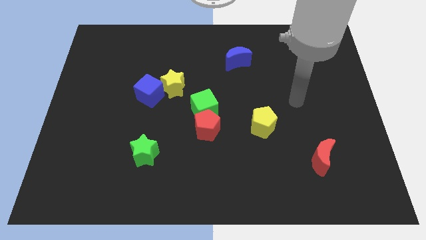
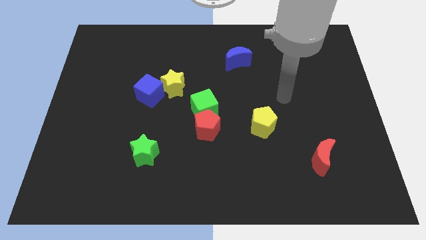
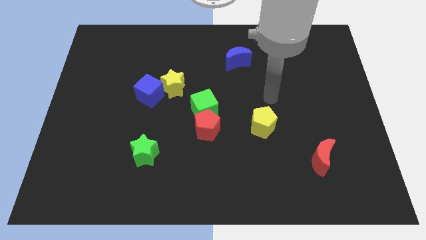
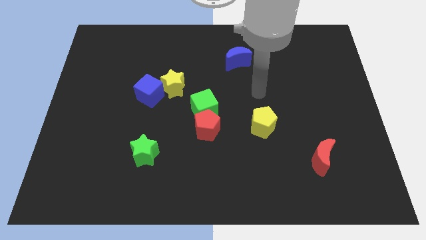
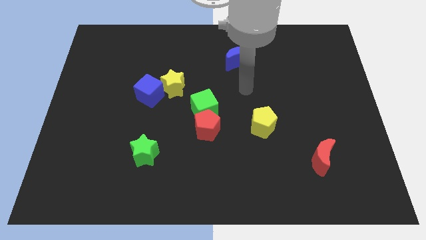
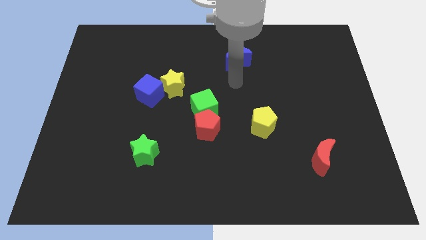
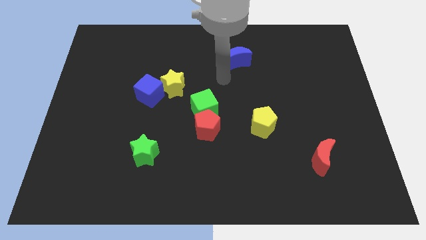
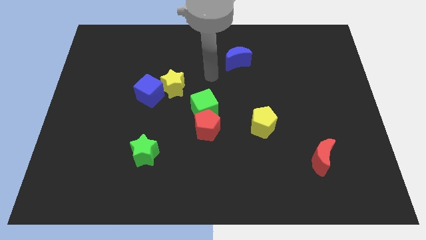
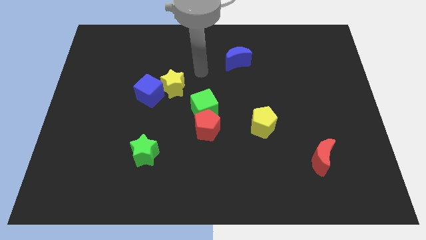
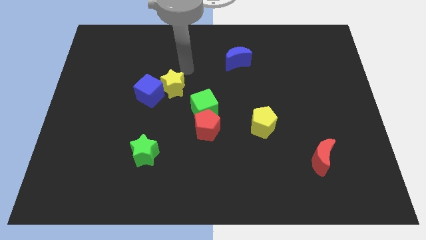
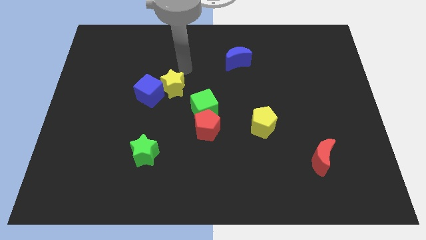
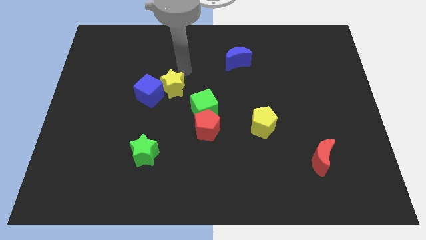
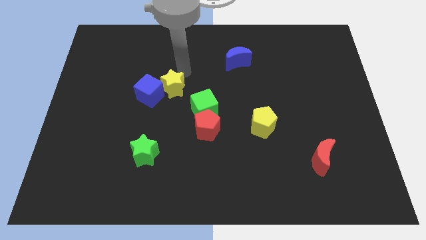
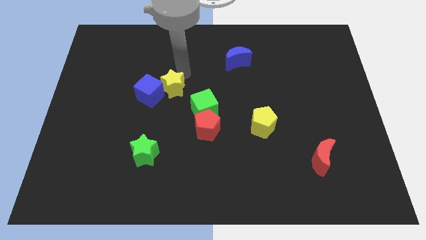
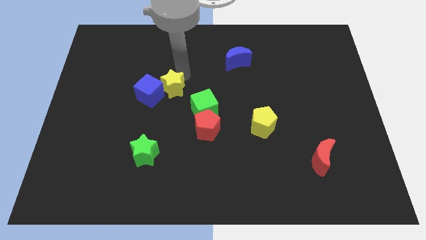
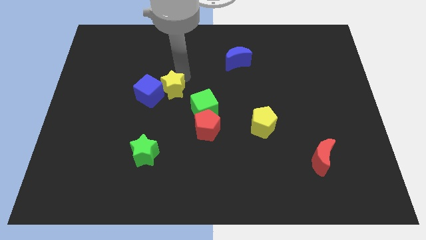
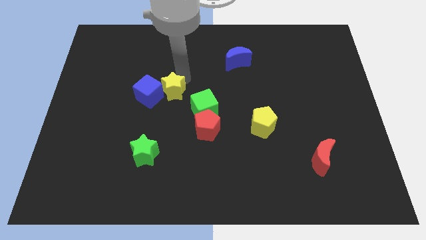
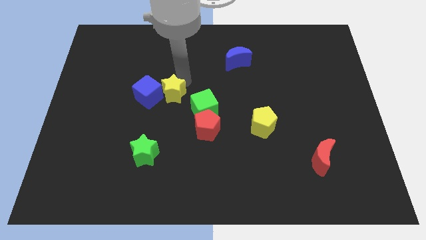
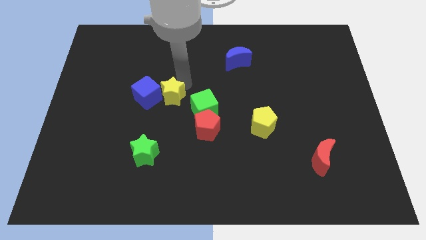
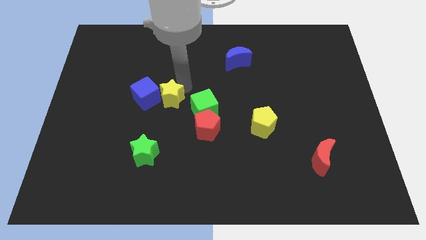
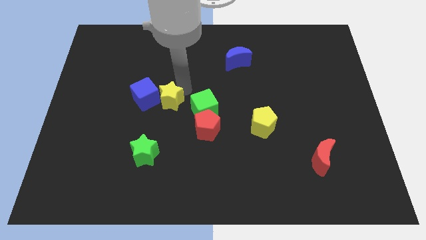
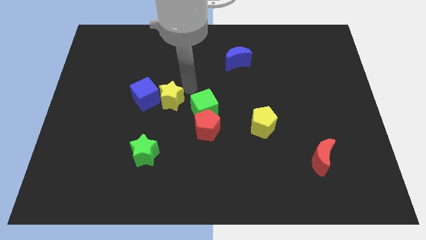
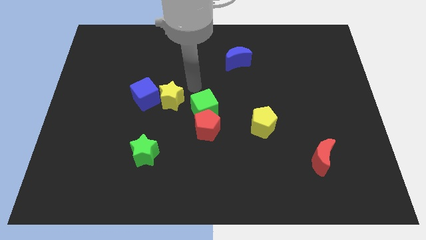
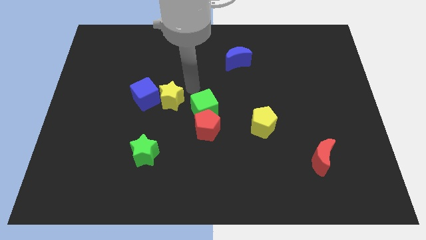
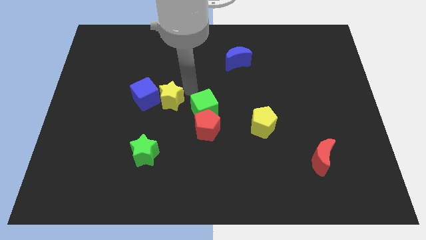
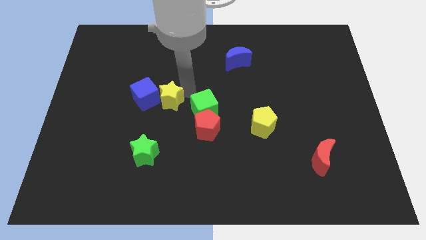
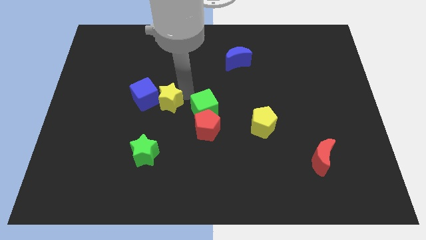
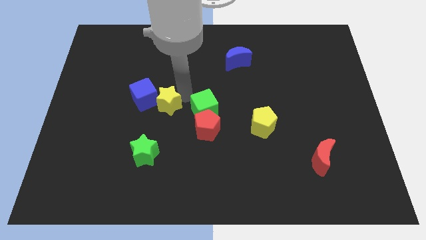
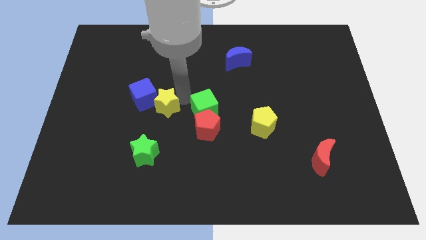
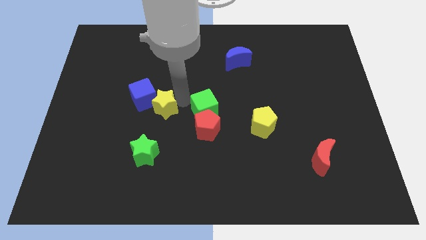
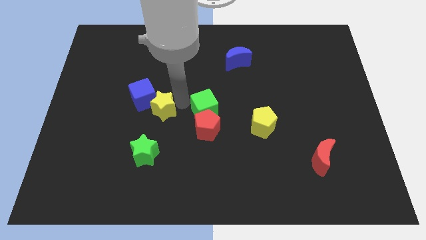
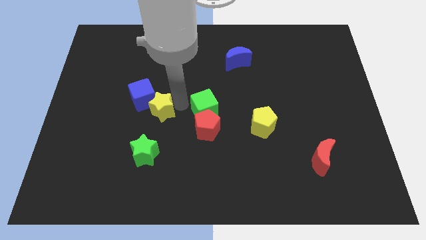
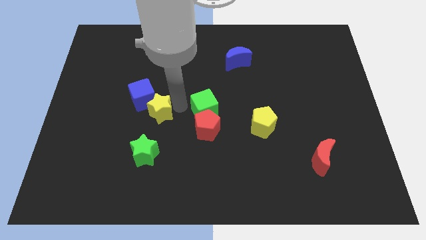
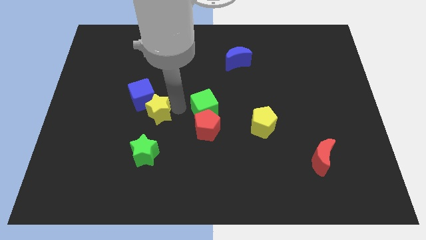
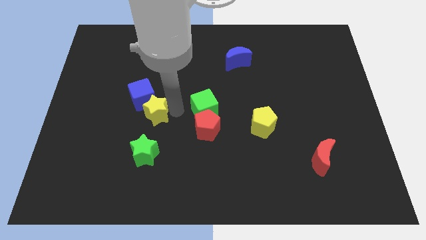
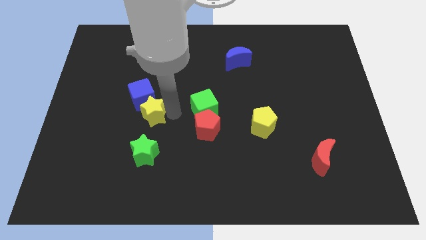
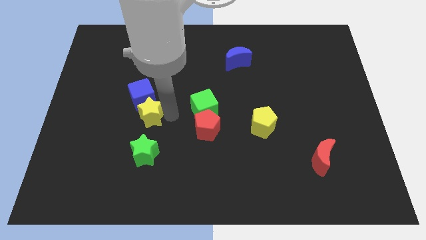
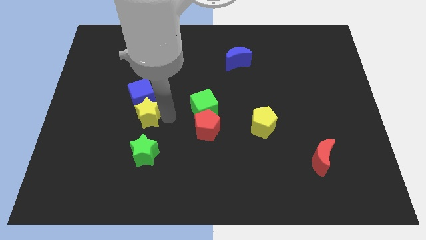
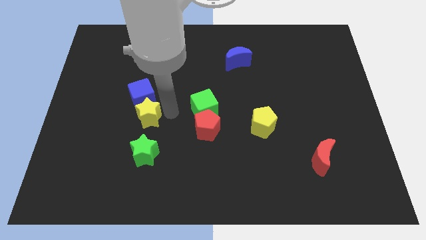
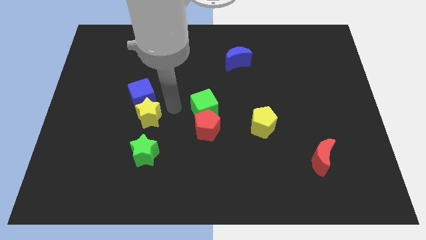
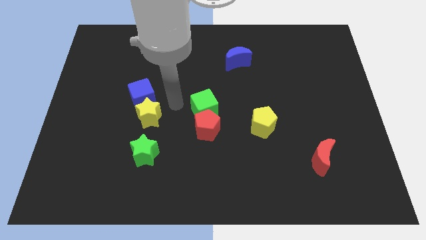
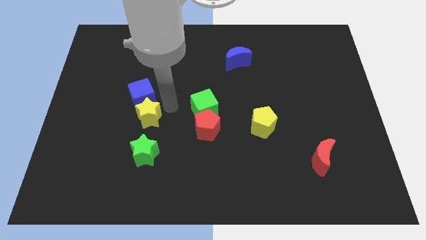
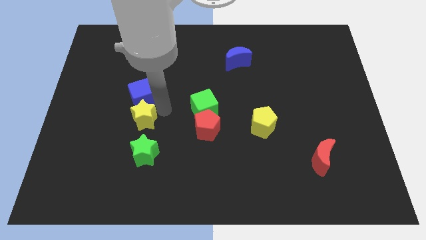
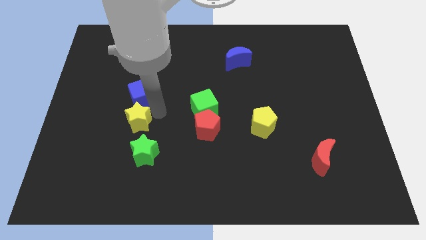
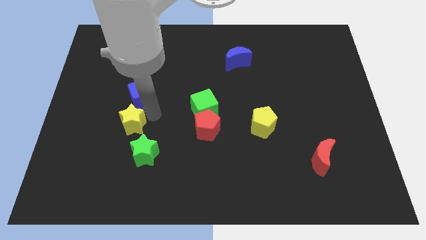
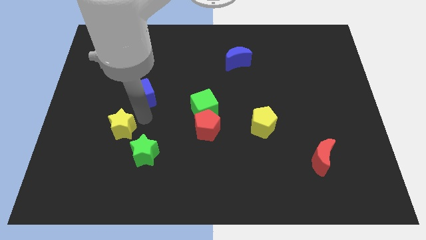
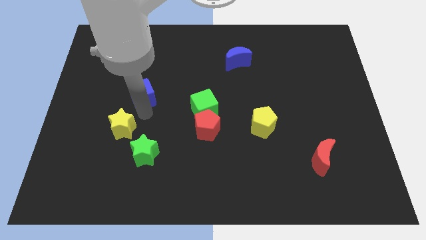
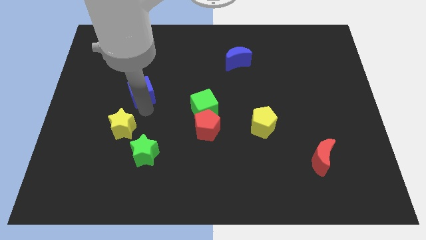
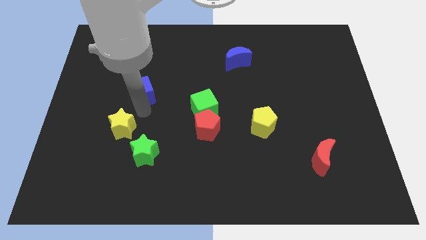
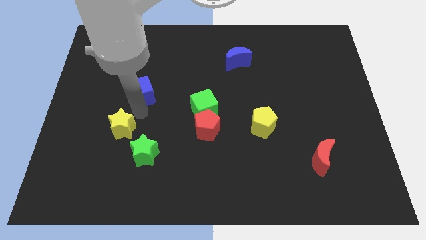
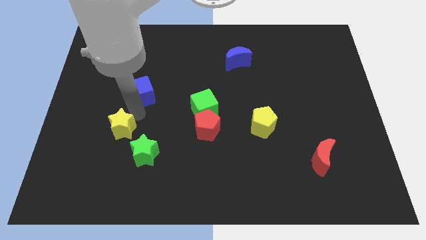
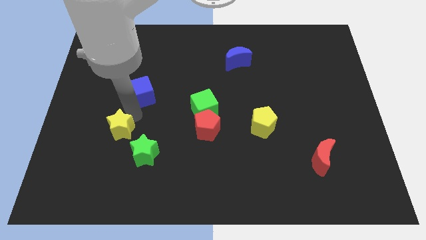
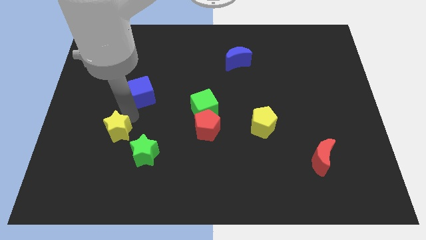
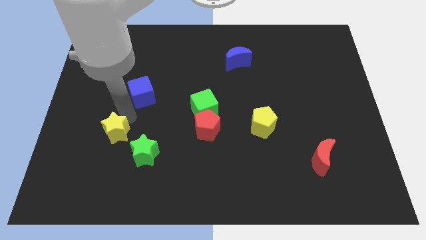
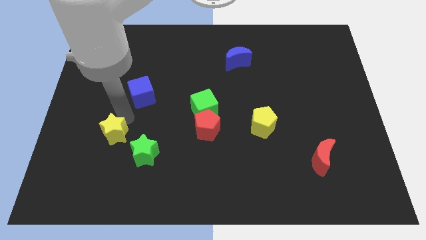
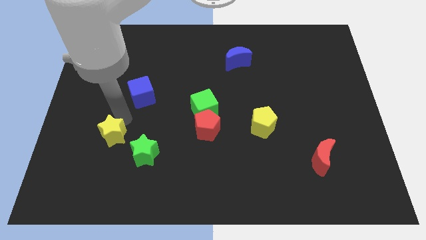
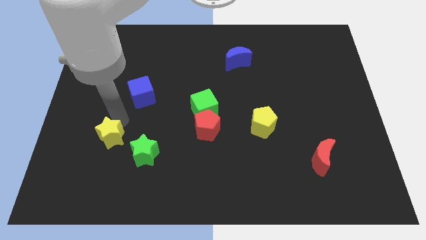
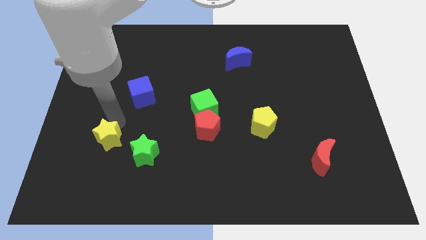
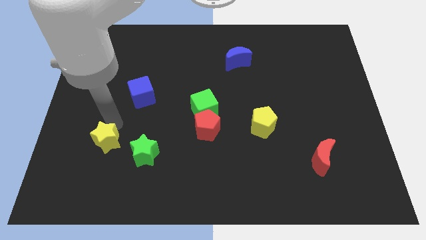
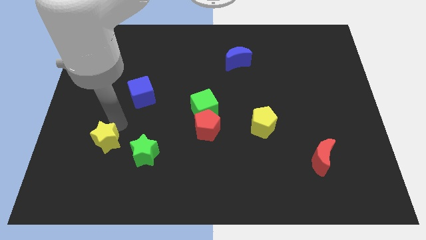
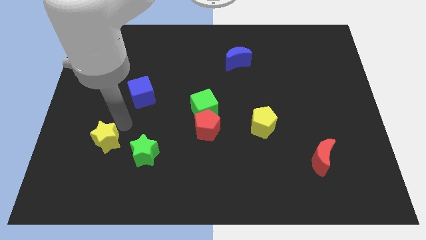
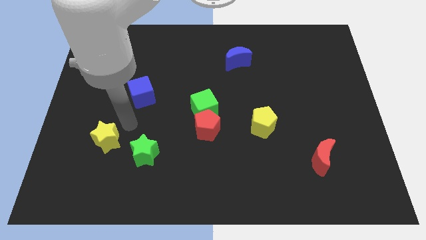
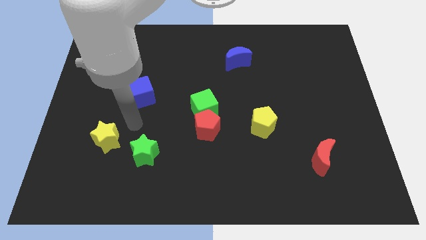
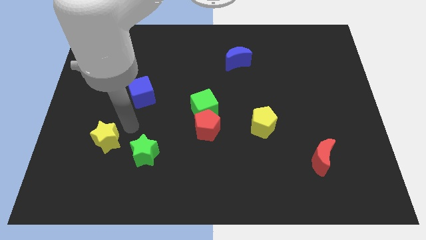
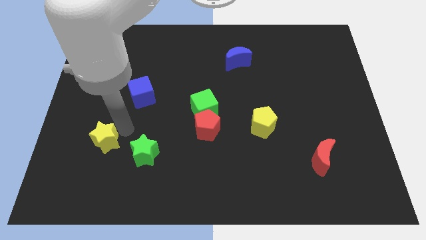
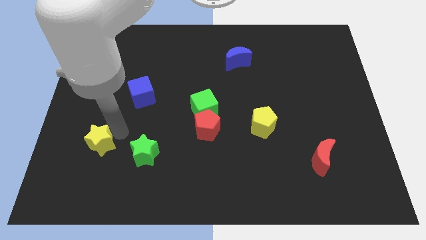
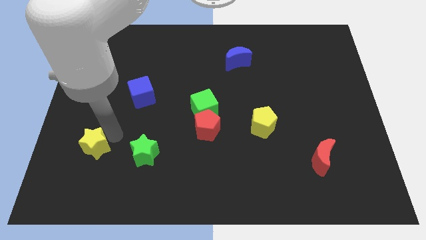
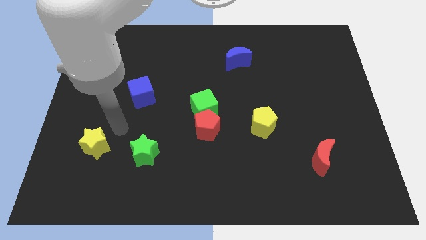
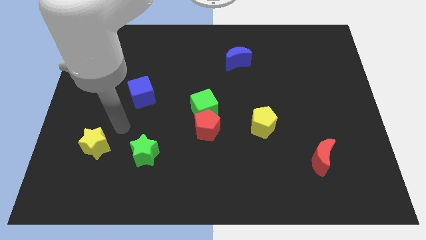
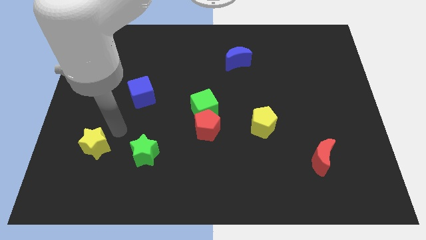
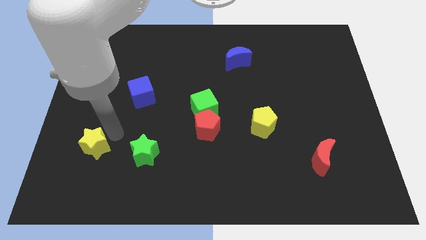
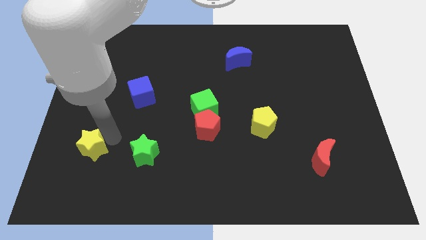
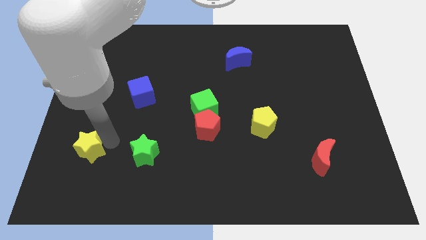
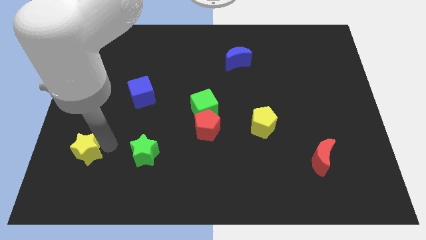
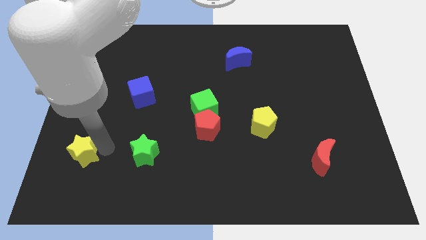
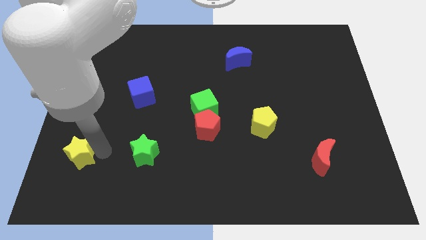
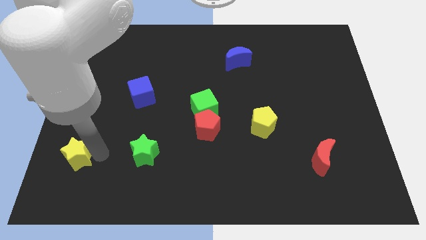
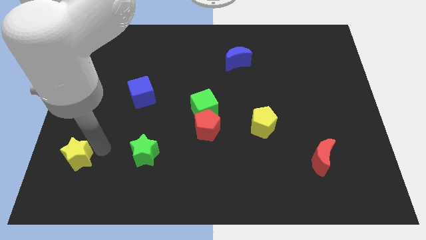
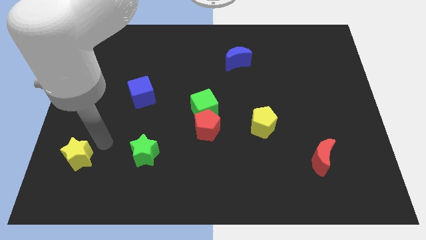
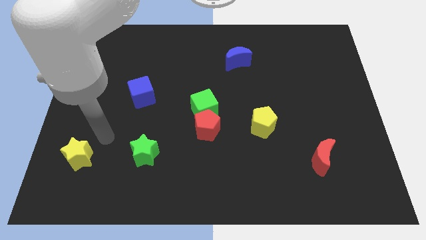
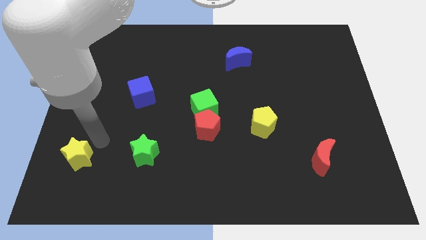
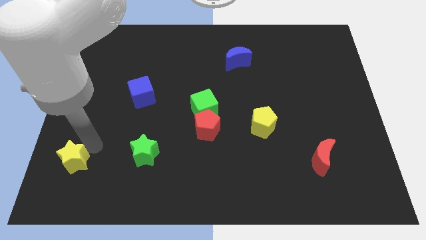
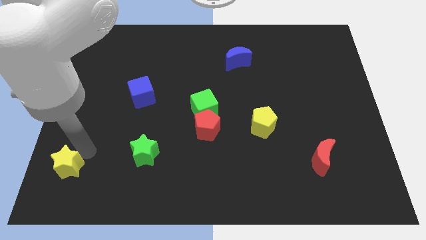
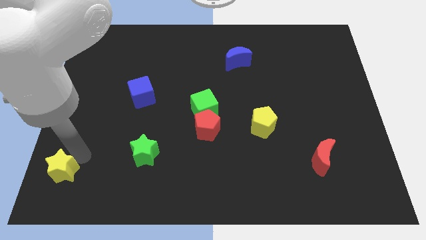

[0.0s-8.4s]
move the yellow star to the lower left corner
